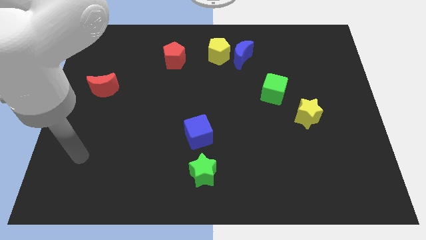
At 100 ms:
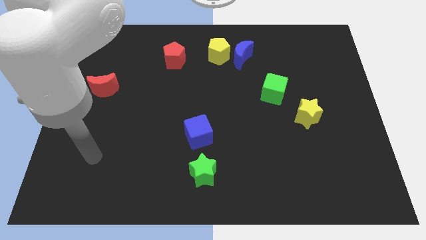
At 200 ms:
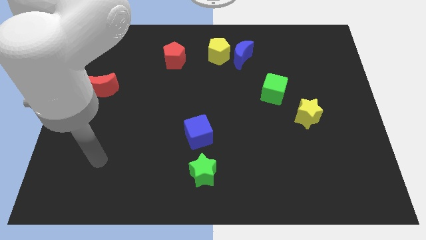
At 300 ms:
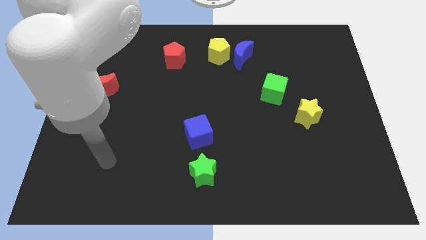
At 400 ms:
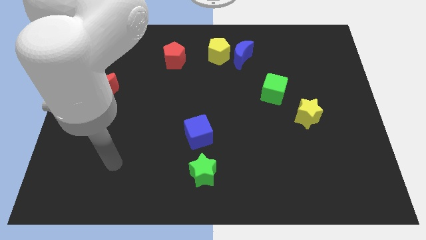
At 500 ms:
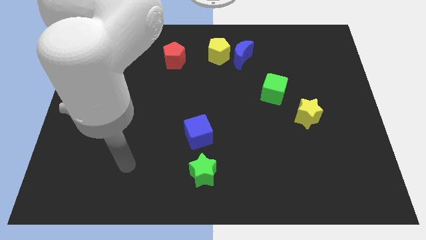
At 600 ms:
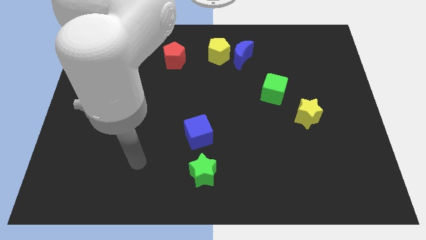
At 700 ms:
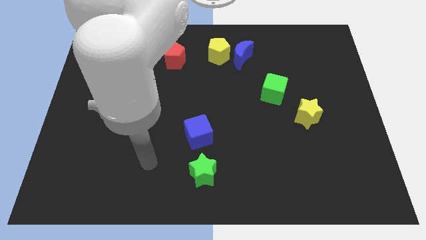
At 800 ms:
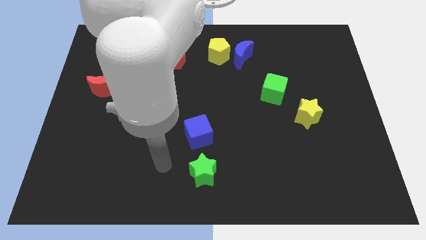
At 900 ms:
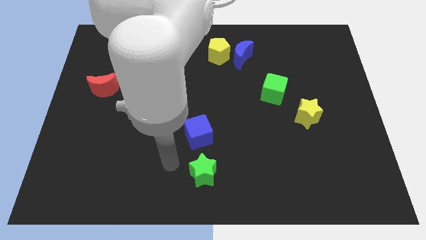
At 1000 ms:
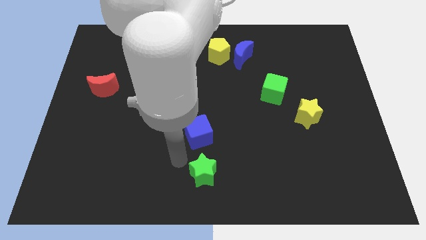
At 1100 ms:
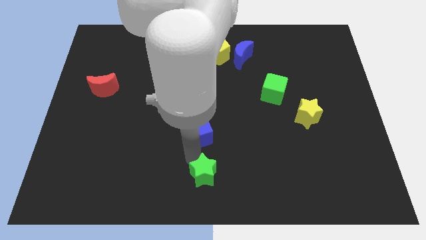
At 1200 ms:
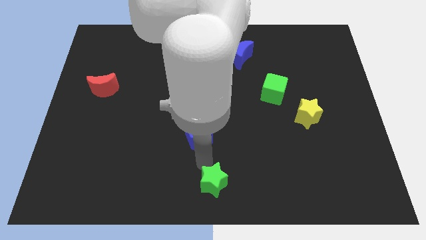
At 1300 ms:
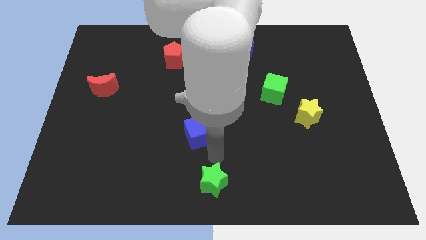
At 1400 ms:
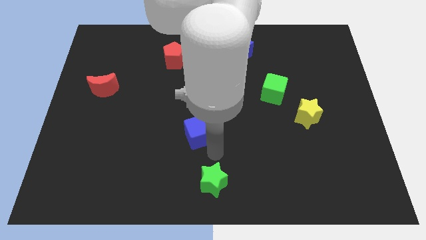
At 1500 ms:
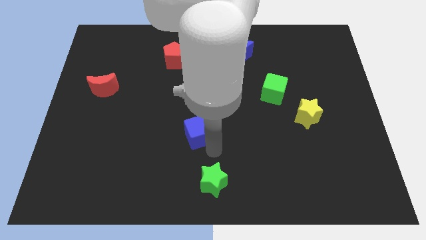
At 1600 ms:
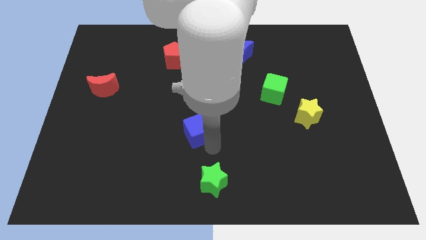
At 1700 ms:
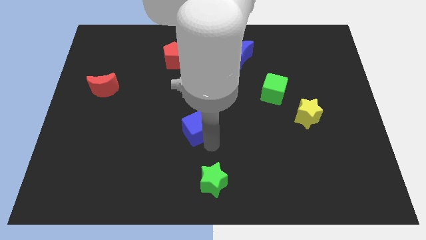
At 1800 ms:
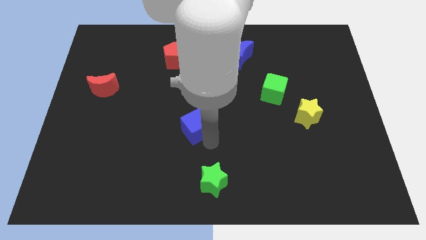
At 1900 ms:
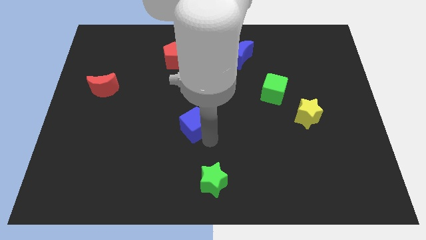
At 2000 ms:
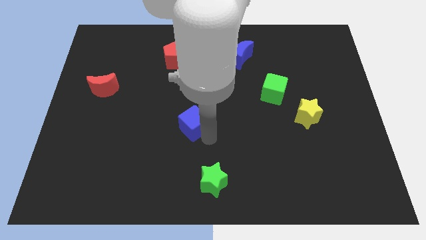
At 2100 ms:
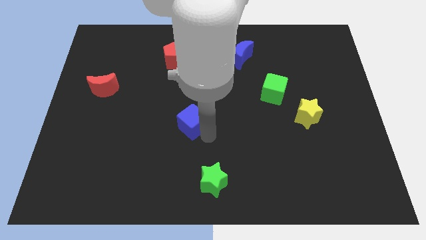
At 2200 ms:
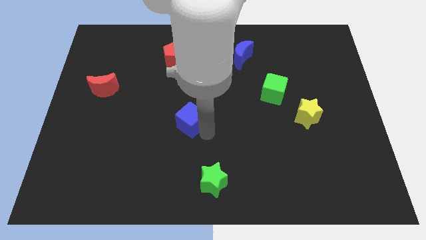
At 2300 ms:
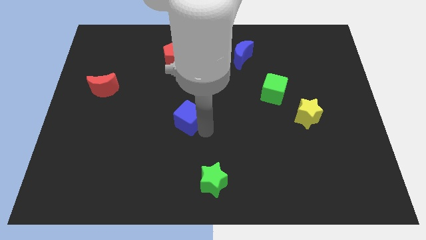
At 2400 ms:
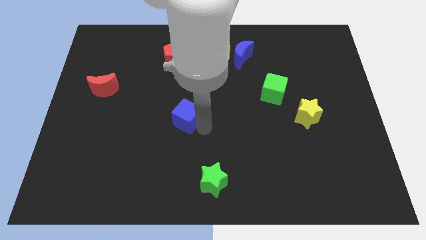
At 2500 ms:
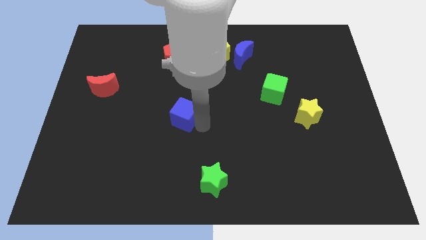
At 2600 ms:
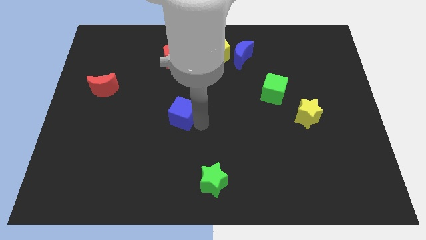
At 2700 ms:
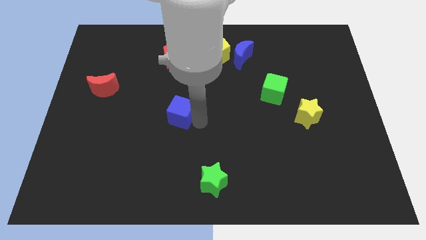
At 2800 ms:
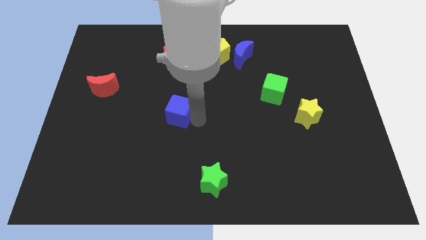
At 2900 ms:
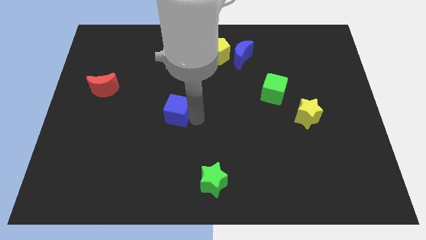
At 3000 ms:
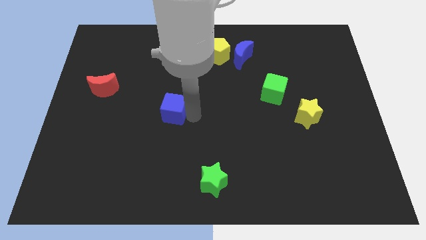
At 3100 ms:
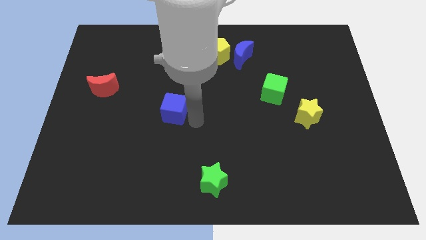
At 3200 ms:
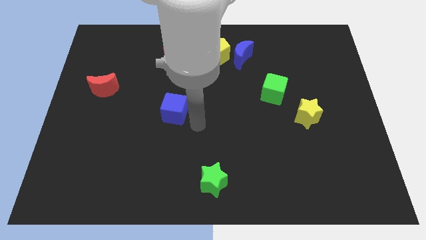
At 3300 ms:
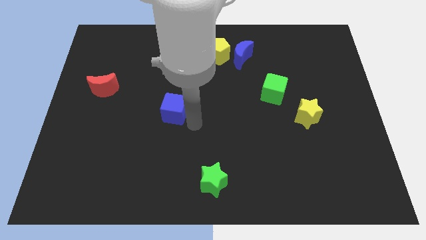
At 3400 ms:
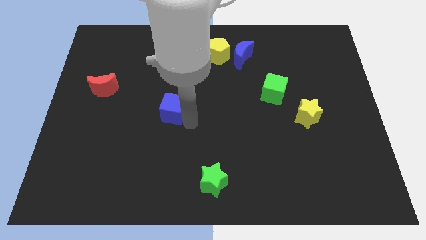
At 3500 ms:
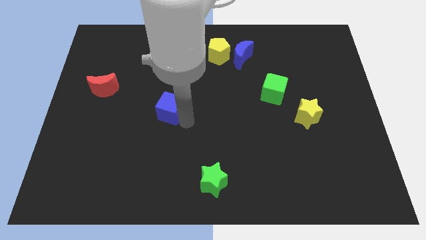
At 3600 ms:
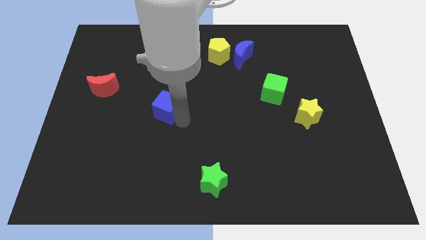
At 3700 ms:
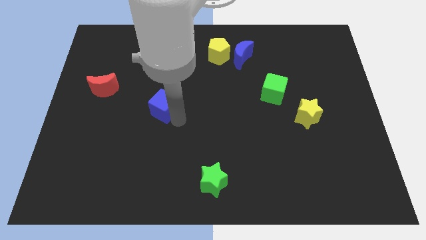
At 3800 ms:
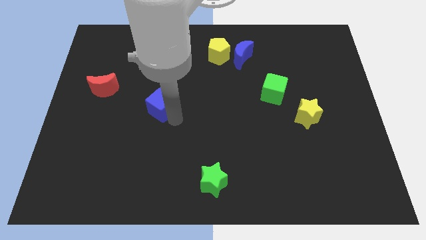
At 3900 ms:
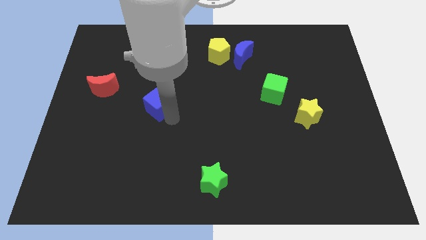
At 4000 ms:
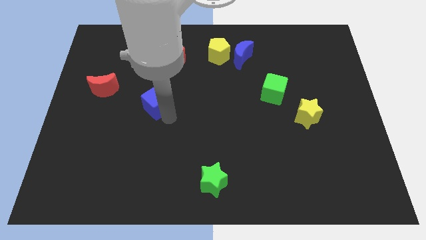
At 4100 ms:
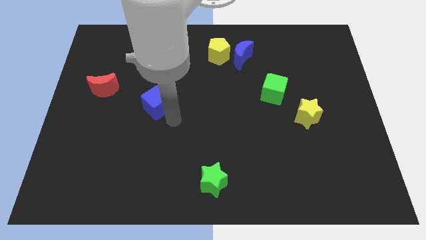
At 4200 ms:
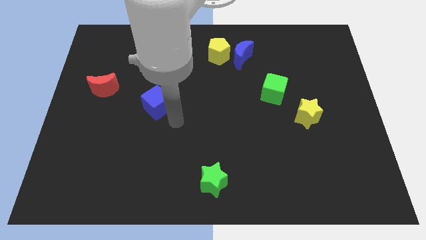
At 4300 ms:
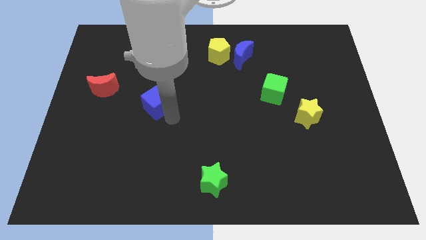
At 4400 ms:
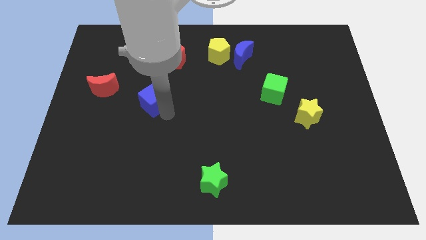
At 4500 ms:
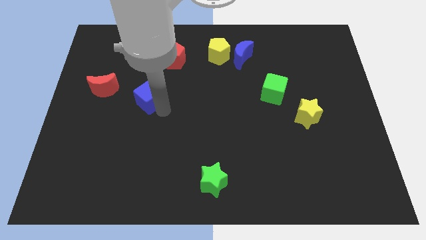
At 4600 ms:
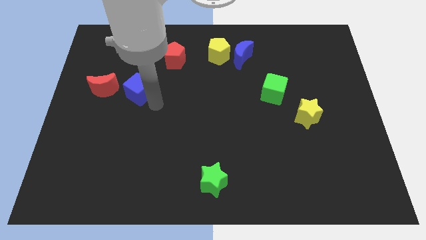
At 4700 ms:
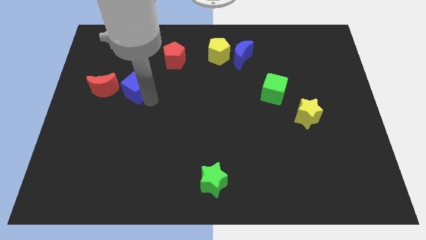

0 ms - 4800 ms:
push the blue cube diagonally upwards and left

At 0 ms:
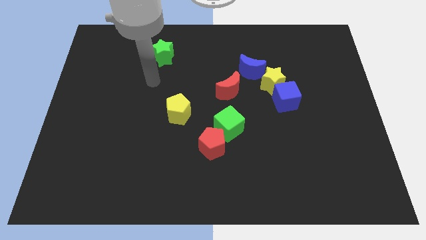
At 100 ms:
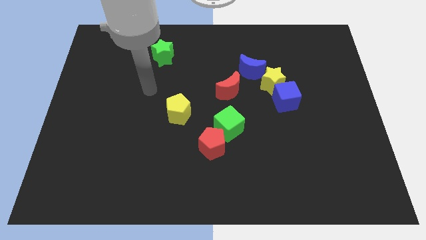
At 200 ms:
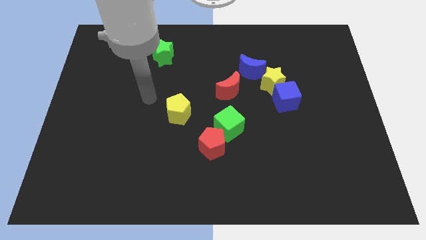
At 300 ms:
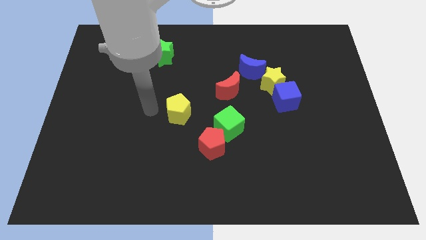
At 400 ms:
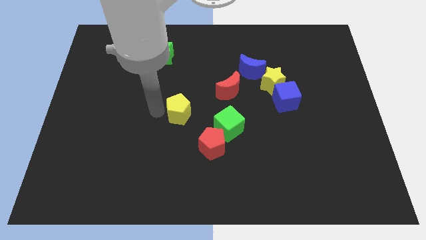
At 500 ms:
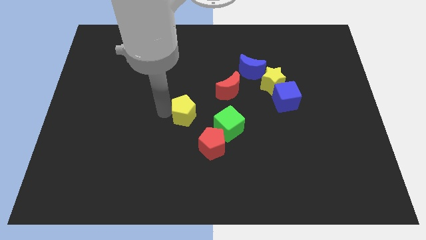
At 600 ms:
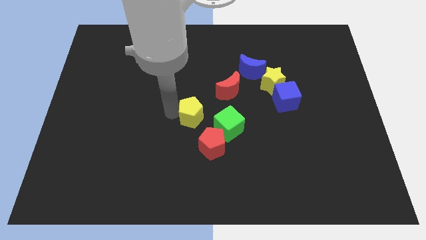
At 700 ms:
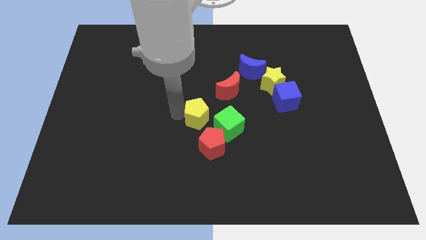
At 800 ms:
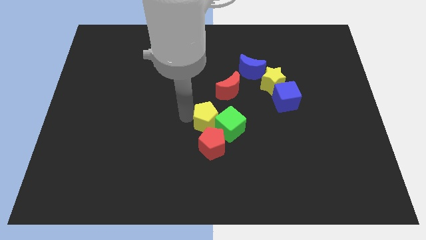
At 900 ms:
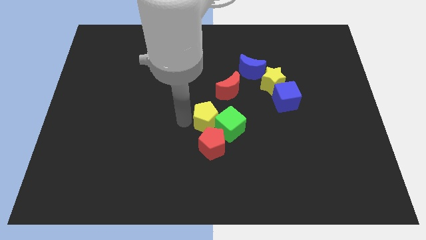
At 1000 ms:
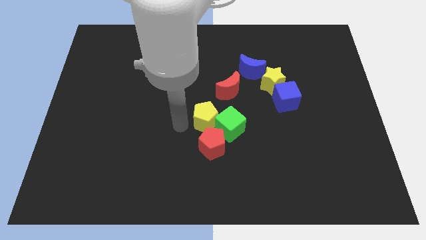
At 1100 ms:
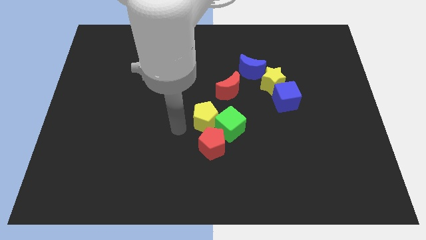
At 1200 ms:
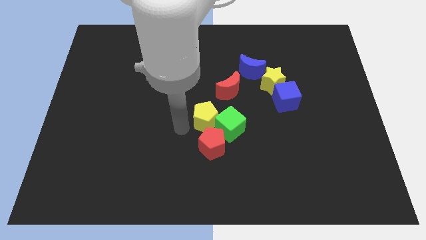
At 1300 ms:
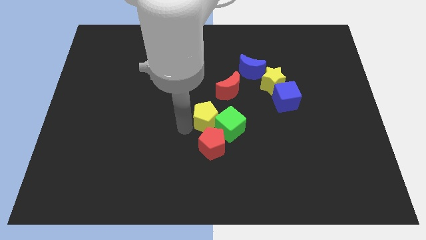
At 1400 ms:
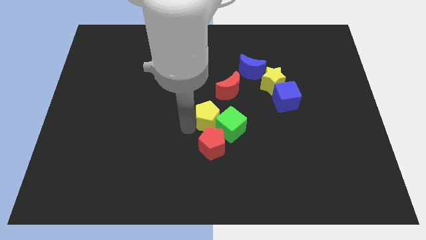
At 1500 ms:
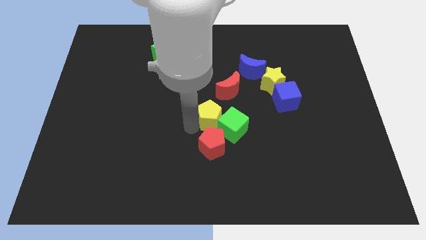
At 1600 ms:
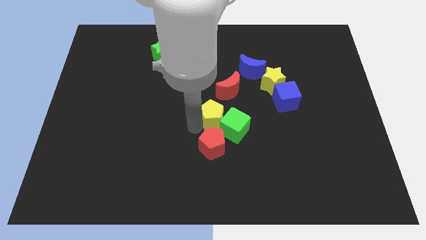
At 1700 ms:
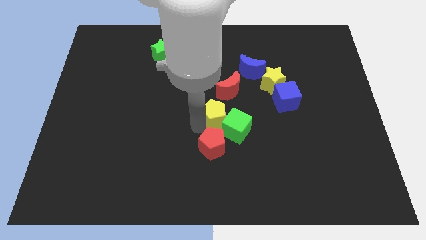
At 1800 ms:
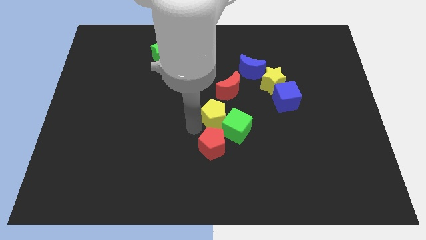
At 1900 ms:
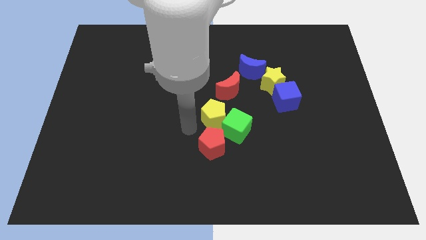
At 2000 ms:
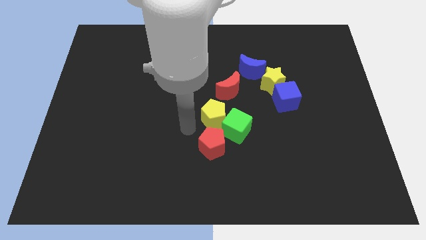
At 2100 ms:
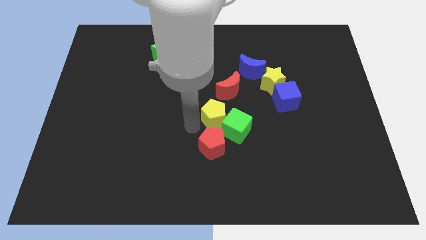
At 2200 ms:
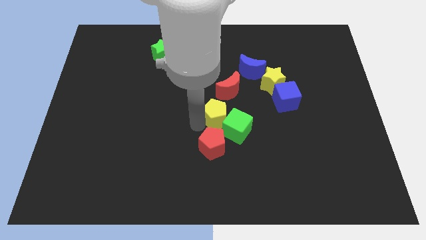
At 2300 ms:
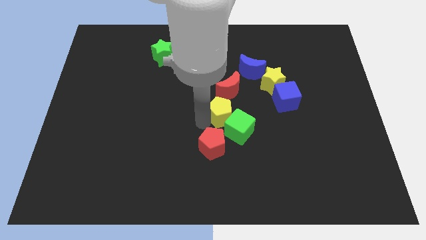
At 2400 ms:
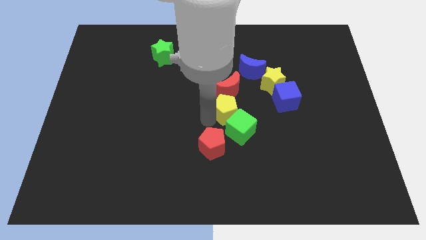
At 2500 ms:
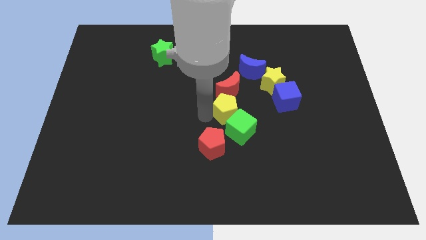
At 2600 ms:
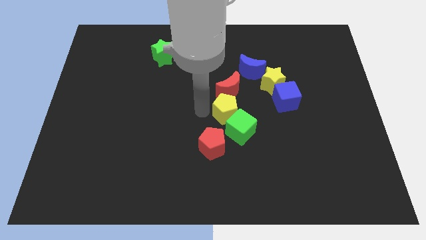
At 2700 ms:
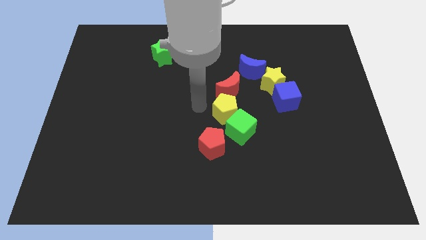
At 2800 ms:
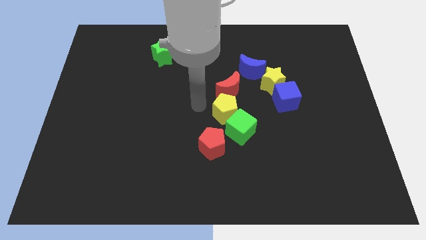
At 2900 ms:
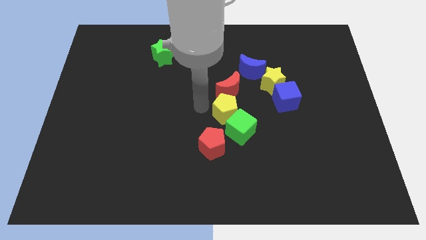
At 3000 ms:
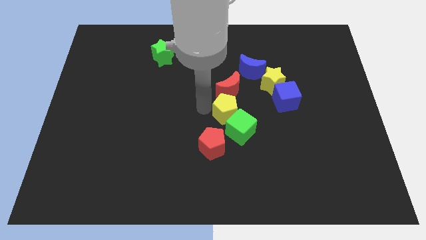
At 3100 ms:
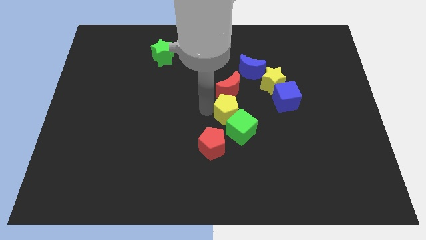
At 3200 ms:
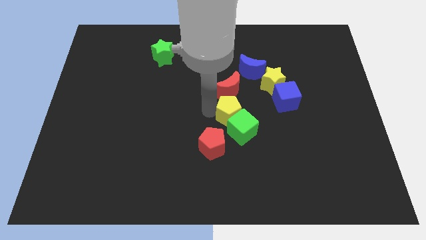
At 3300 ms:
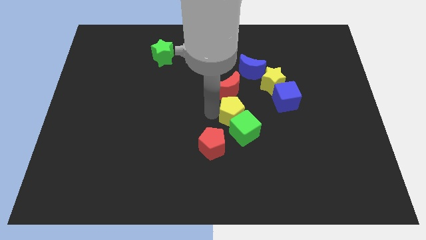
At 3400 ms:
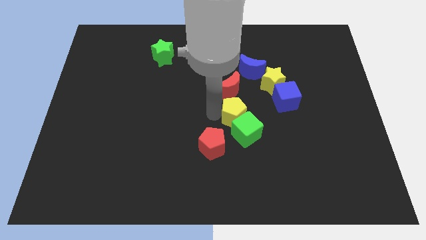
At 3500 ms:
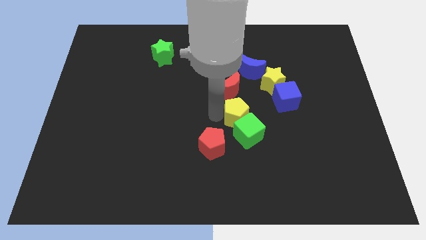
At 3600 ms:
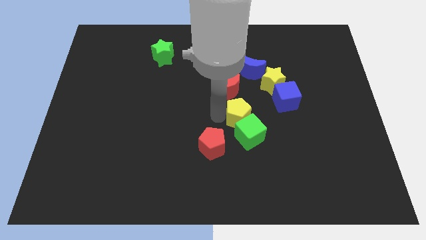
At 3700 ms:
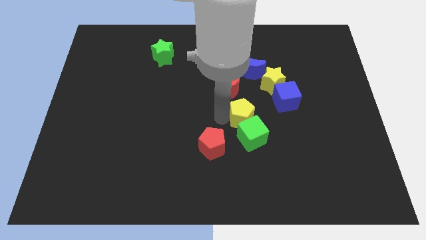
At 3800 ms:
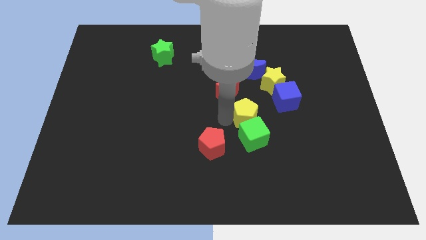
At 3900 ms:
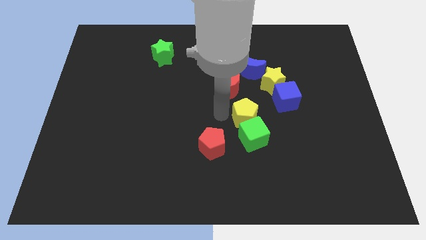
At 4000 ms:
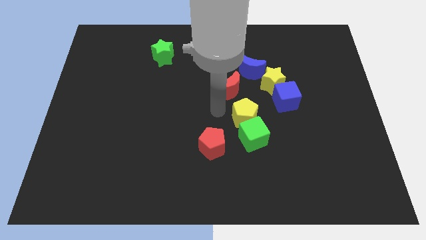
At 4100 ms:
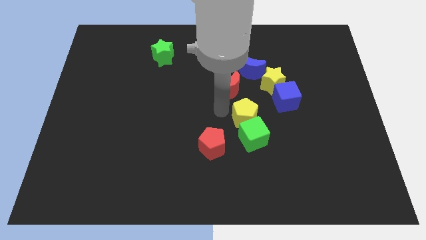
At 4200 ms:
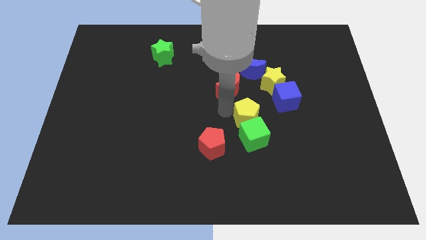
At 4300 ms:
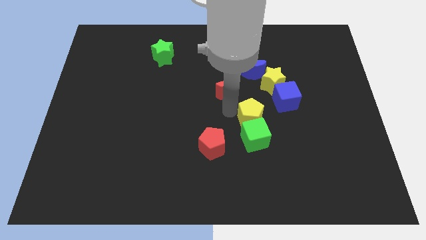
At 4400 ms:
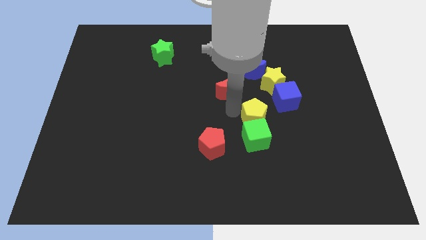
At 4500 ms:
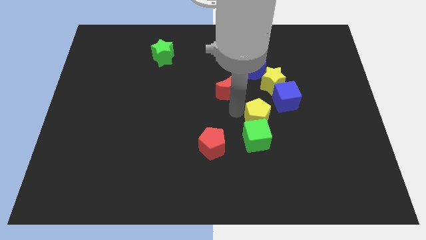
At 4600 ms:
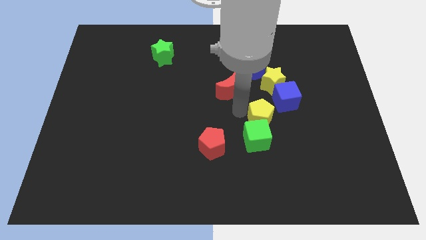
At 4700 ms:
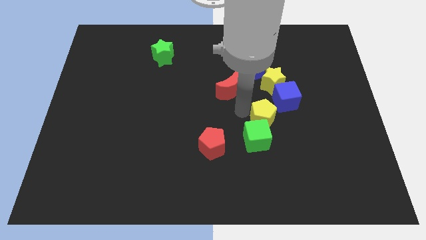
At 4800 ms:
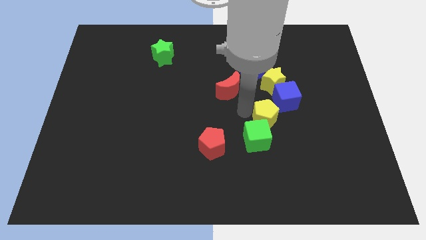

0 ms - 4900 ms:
move the yellow pentagon right
